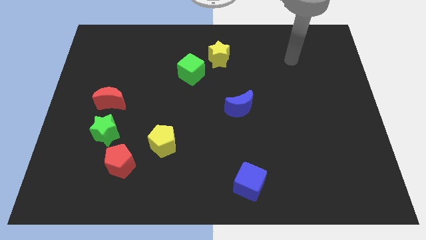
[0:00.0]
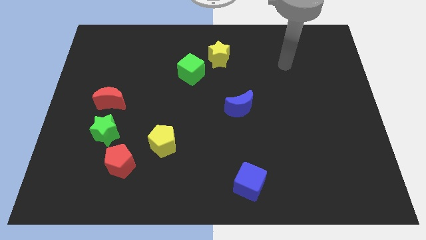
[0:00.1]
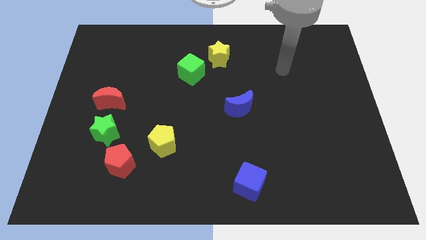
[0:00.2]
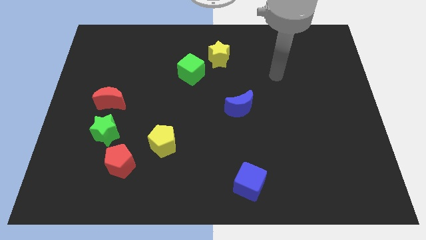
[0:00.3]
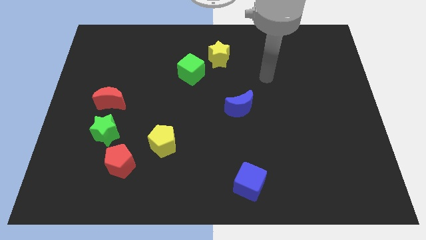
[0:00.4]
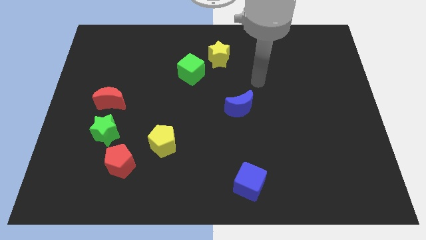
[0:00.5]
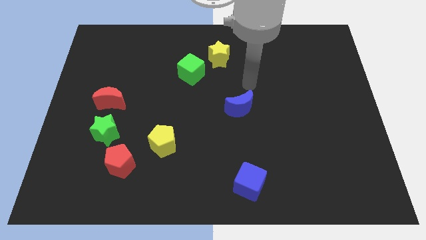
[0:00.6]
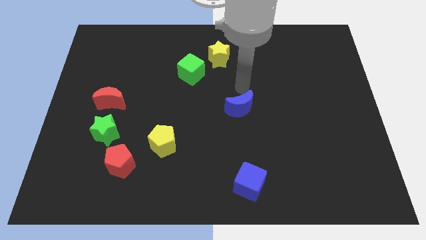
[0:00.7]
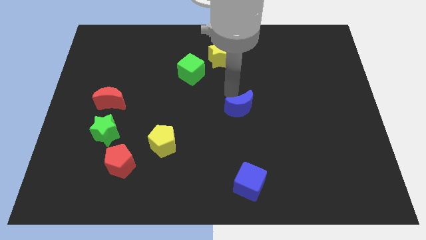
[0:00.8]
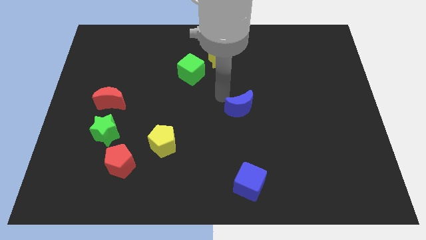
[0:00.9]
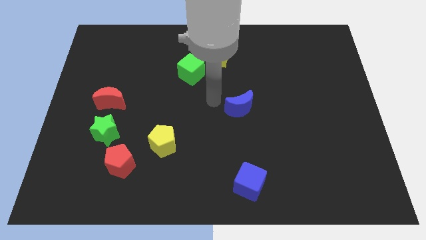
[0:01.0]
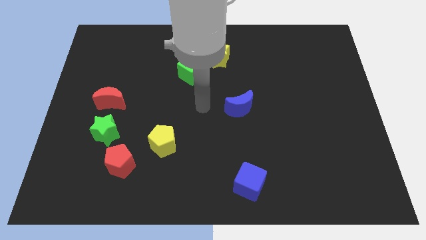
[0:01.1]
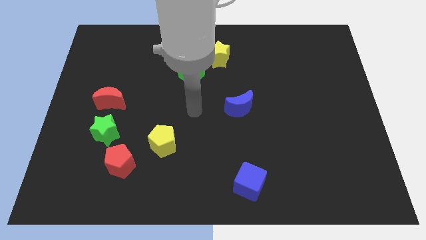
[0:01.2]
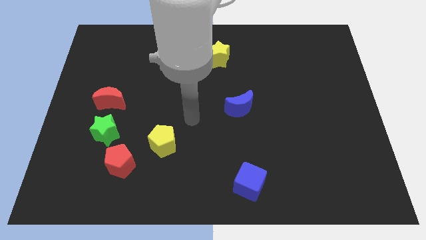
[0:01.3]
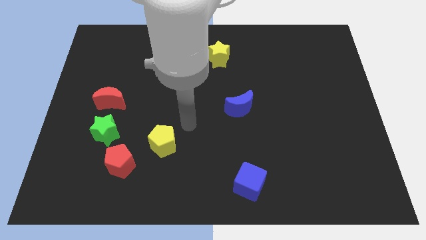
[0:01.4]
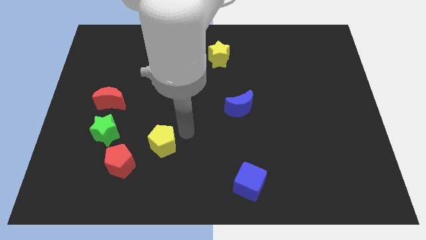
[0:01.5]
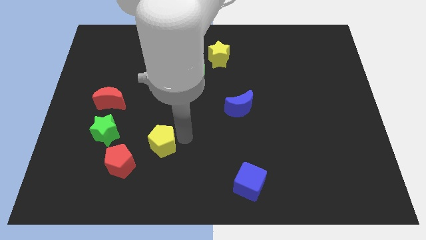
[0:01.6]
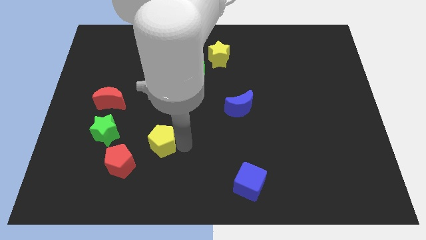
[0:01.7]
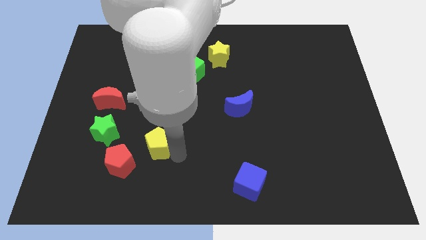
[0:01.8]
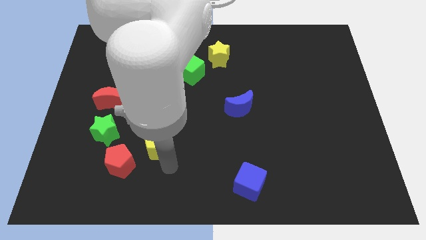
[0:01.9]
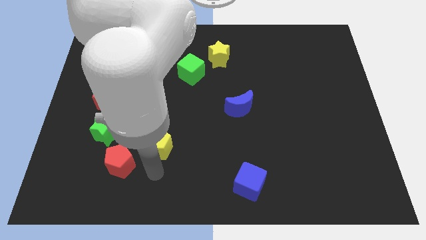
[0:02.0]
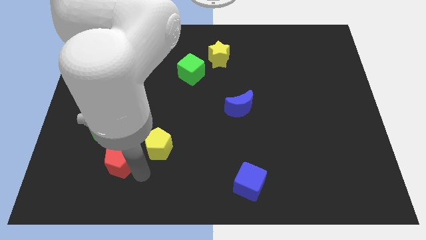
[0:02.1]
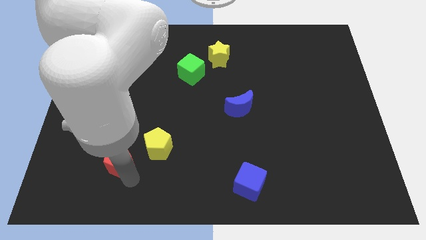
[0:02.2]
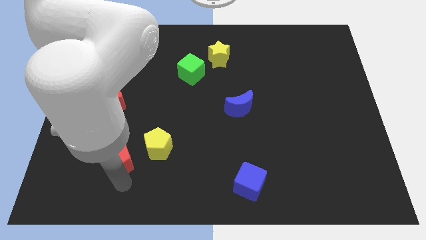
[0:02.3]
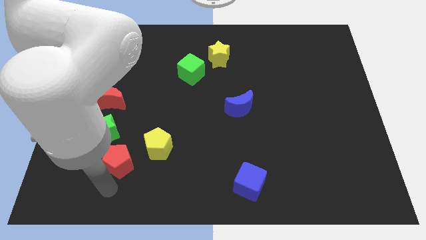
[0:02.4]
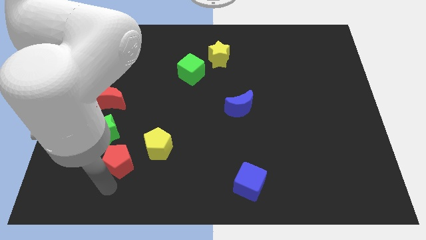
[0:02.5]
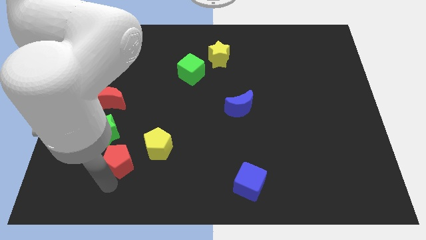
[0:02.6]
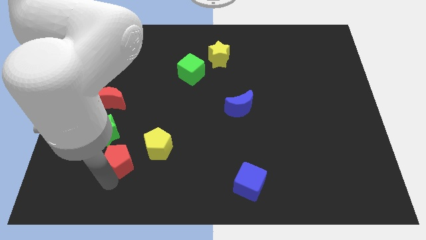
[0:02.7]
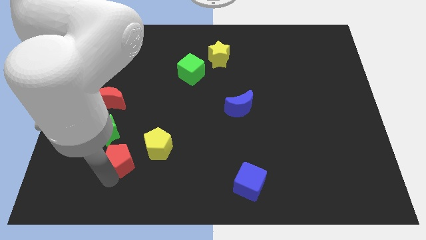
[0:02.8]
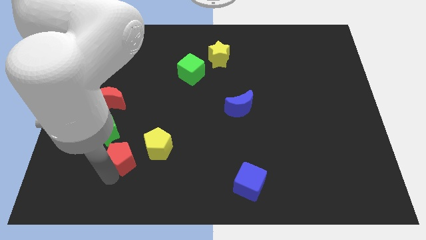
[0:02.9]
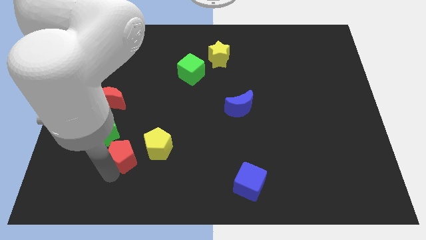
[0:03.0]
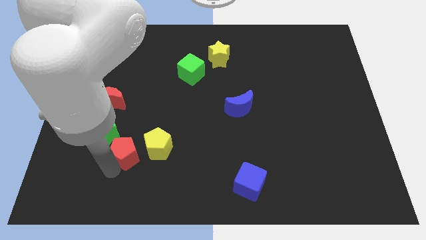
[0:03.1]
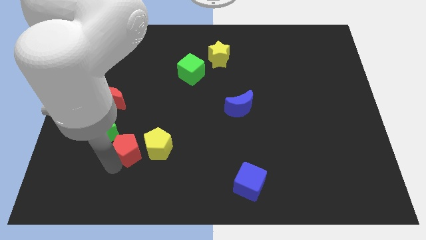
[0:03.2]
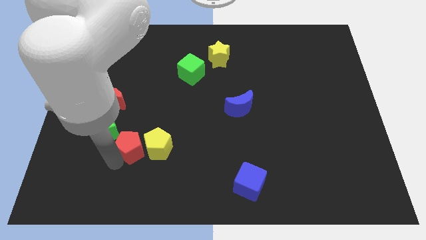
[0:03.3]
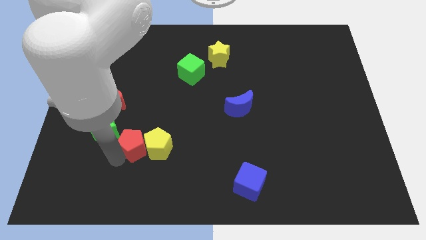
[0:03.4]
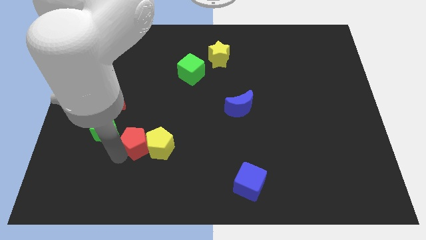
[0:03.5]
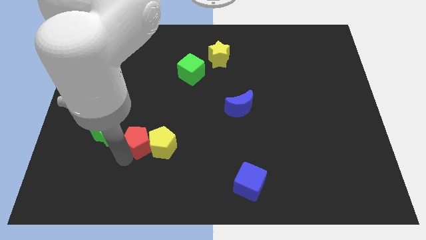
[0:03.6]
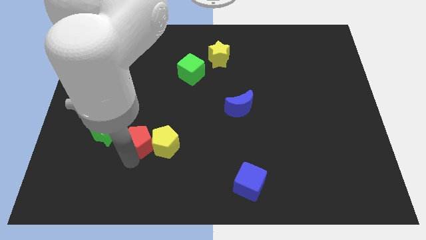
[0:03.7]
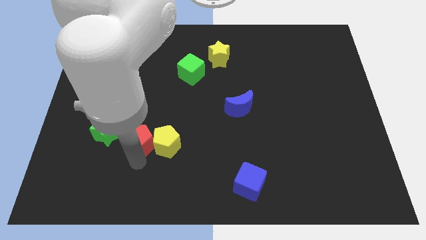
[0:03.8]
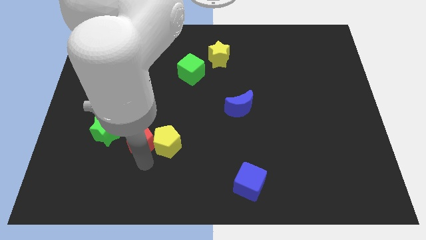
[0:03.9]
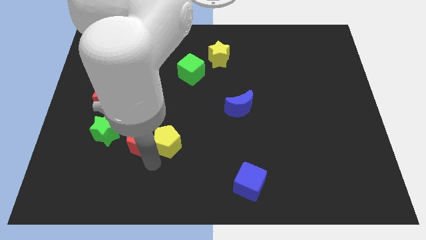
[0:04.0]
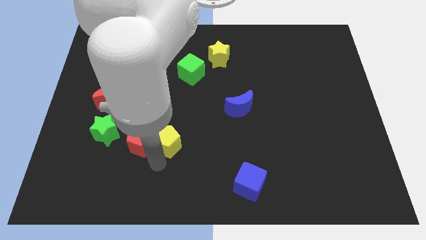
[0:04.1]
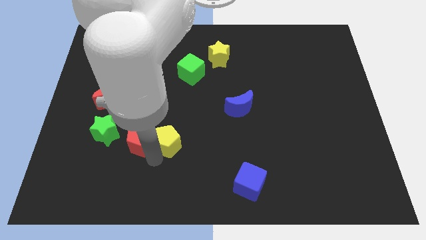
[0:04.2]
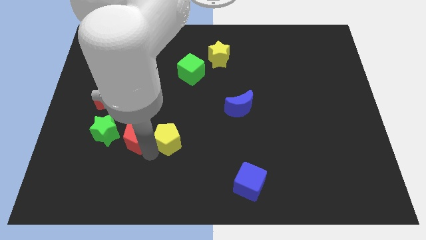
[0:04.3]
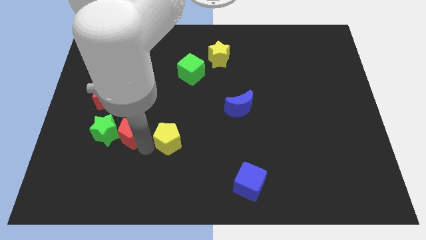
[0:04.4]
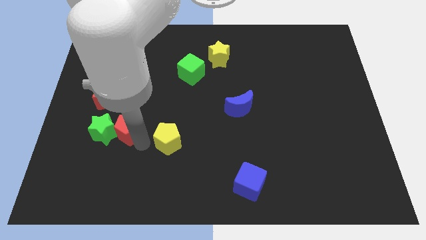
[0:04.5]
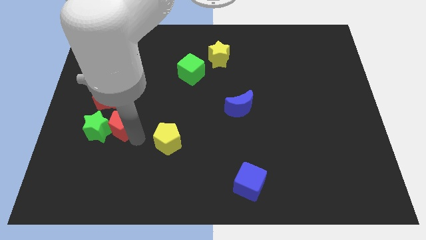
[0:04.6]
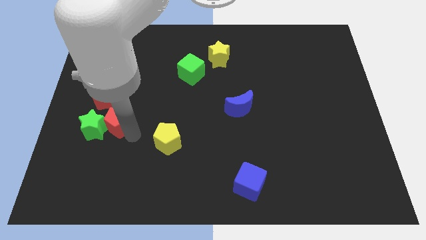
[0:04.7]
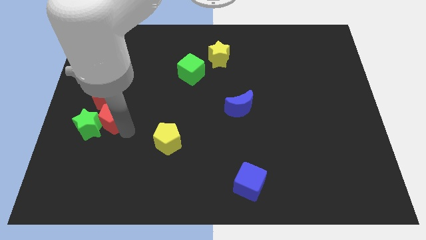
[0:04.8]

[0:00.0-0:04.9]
move the red pentagon next to the red moon

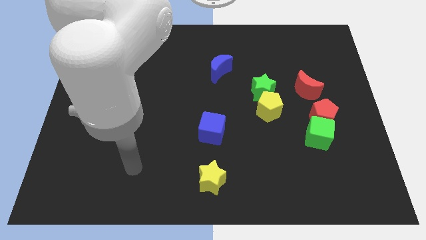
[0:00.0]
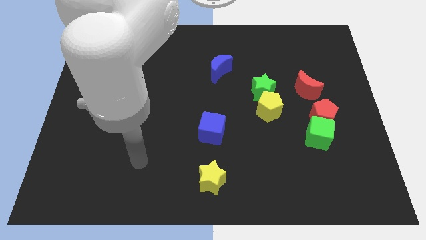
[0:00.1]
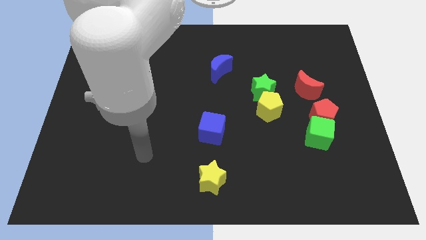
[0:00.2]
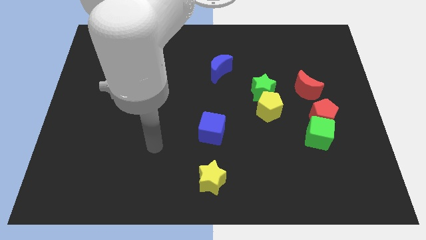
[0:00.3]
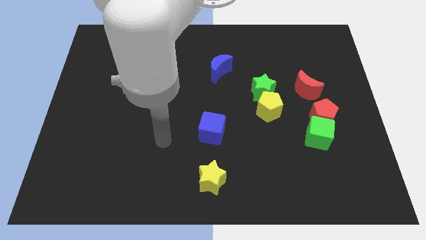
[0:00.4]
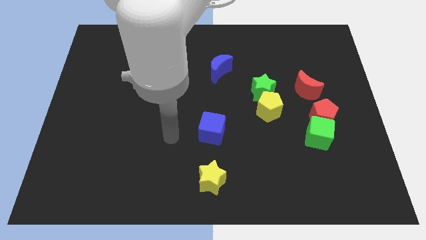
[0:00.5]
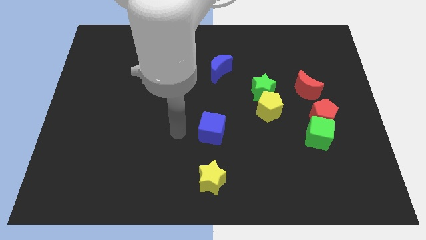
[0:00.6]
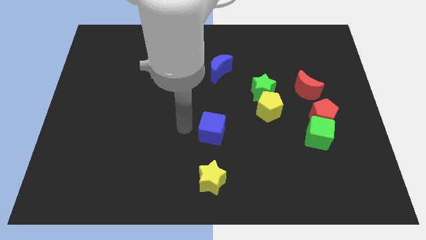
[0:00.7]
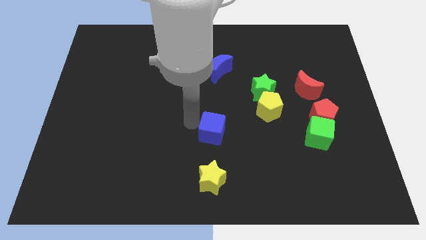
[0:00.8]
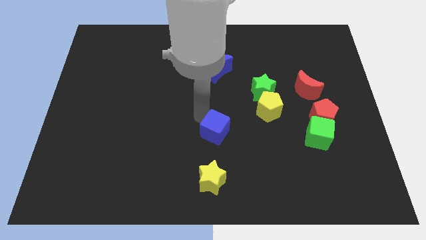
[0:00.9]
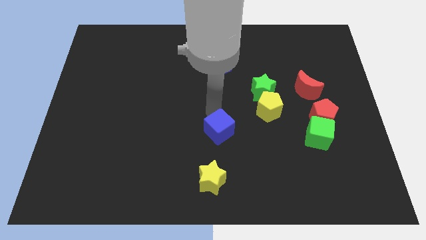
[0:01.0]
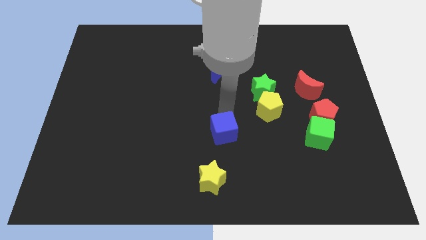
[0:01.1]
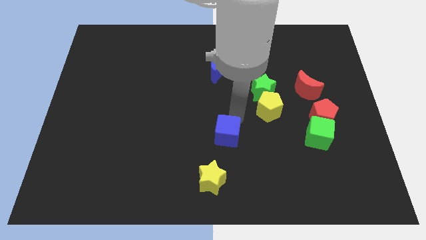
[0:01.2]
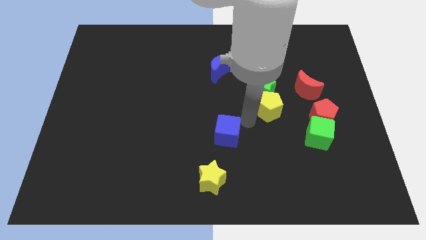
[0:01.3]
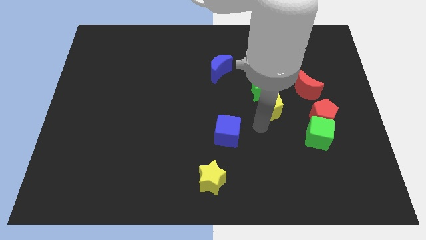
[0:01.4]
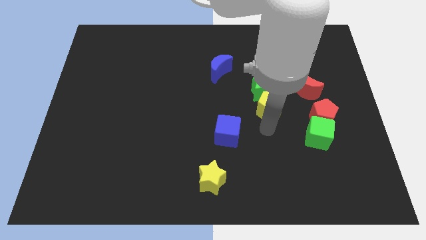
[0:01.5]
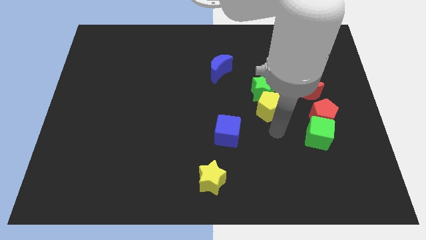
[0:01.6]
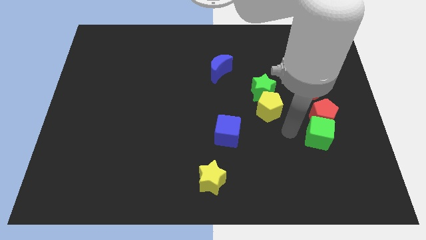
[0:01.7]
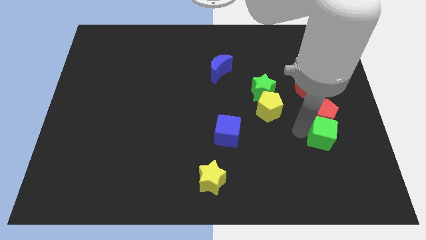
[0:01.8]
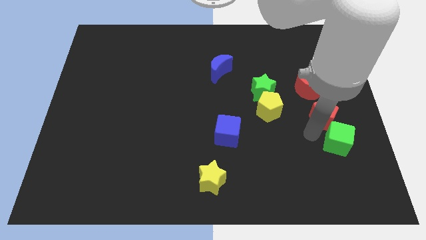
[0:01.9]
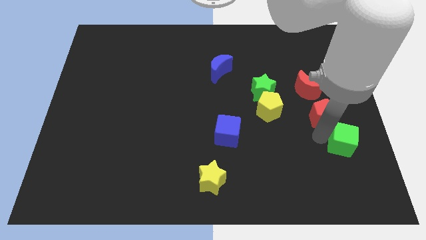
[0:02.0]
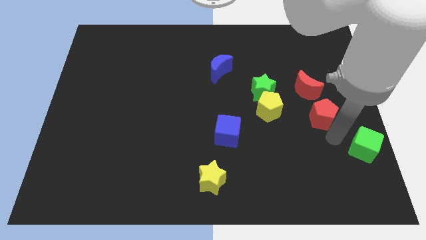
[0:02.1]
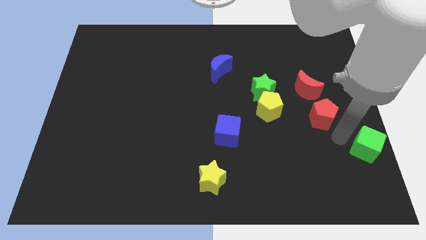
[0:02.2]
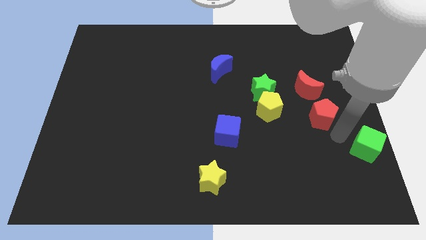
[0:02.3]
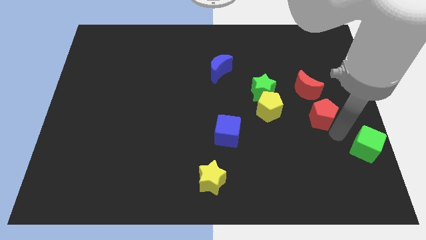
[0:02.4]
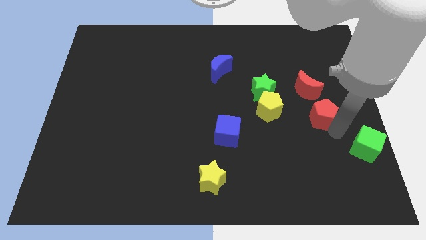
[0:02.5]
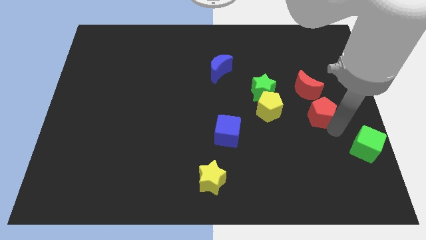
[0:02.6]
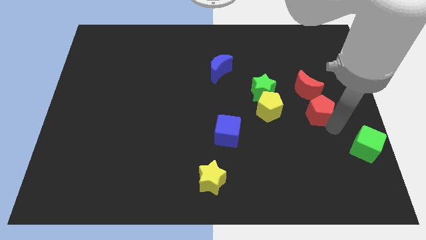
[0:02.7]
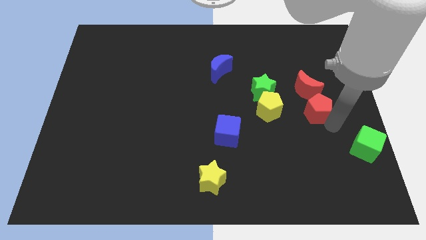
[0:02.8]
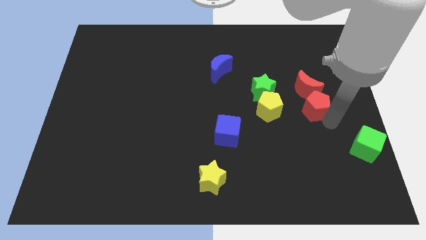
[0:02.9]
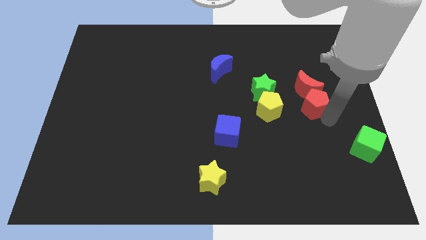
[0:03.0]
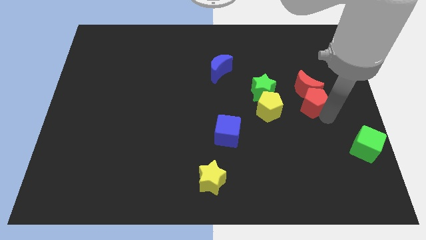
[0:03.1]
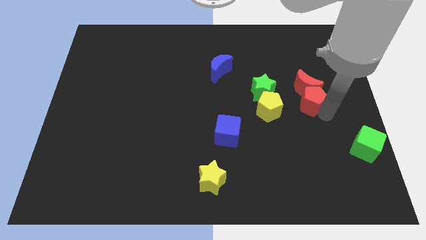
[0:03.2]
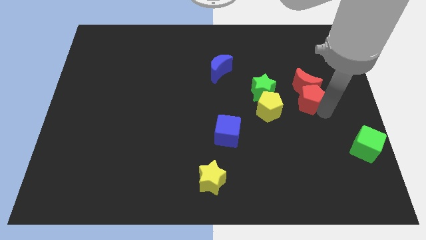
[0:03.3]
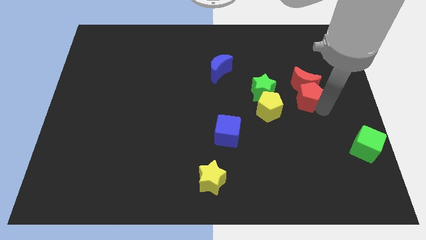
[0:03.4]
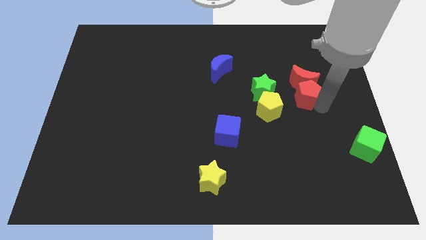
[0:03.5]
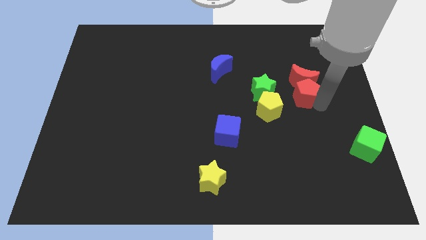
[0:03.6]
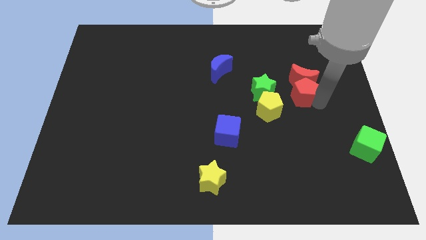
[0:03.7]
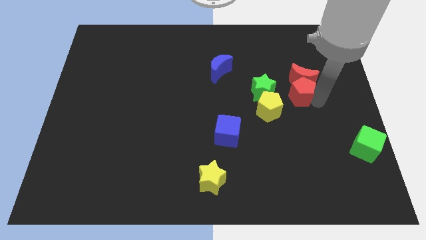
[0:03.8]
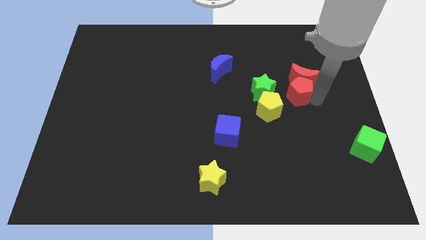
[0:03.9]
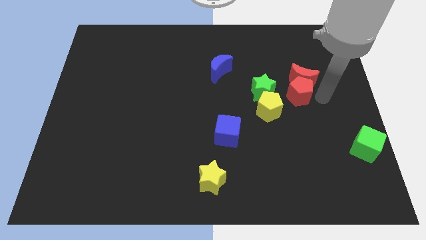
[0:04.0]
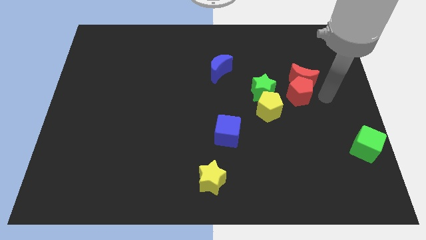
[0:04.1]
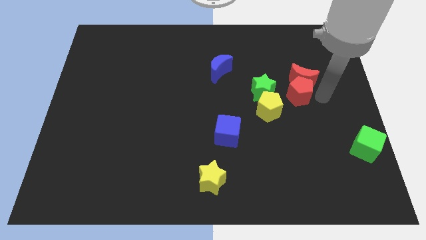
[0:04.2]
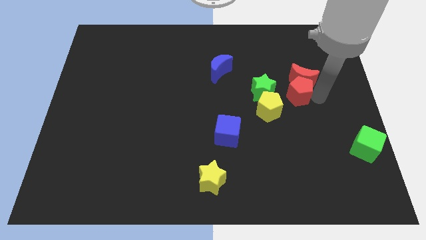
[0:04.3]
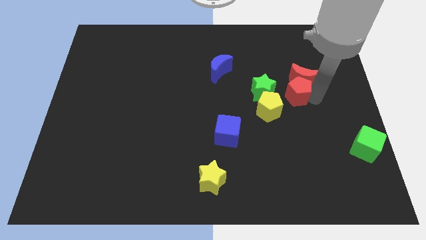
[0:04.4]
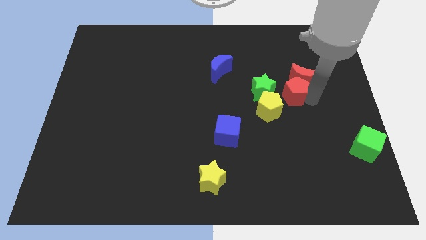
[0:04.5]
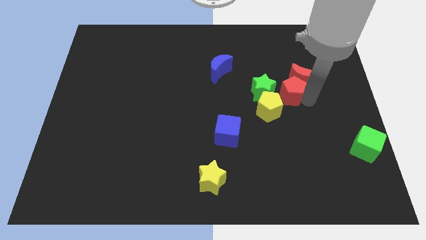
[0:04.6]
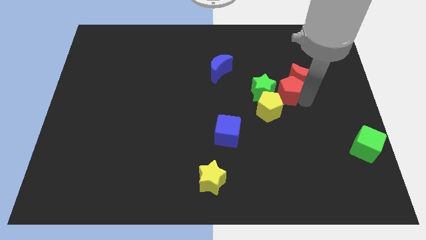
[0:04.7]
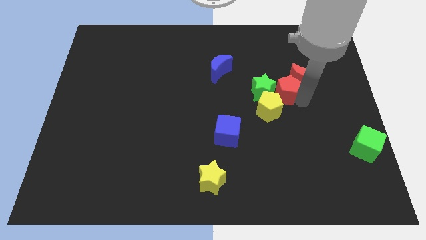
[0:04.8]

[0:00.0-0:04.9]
slide the red pentagon to the green star
